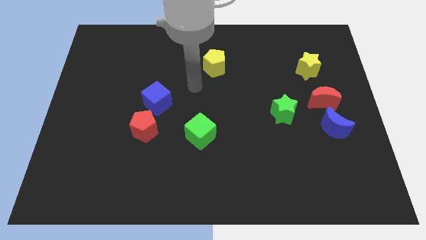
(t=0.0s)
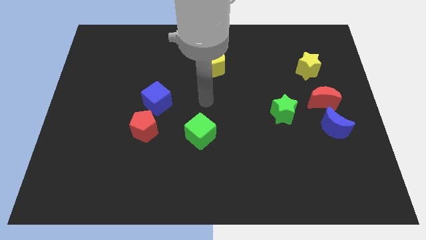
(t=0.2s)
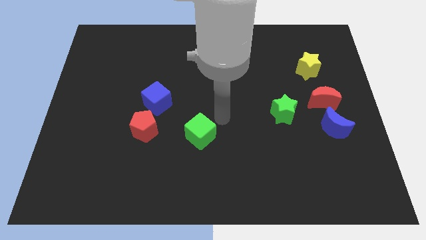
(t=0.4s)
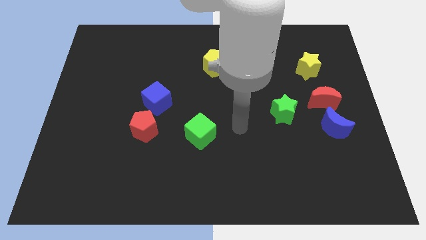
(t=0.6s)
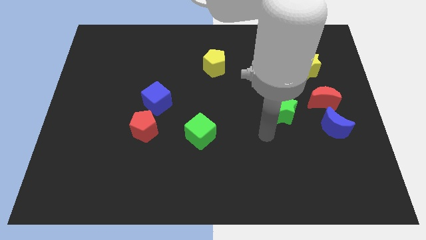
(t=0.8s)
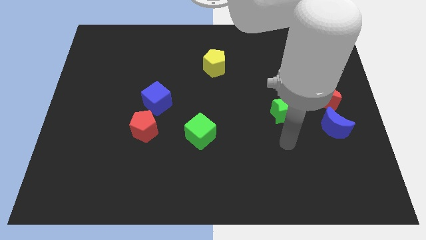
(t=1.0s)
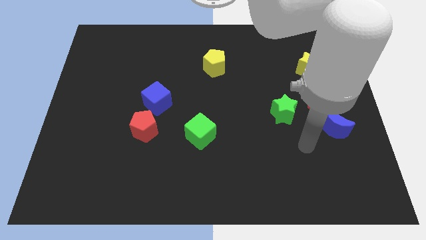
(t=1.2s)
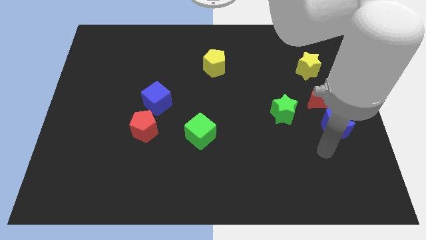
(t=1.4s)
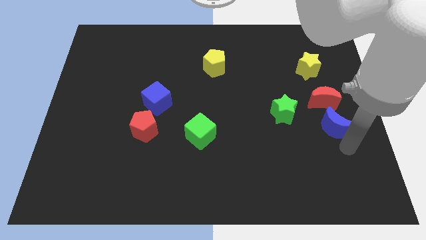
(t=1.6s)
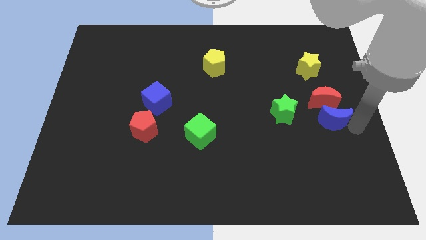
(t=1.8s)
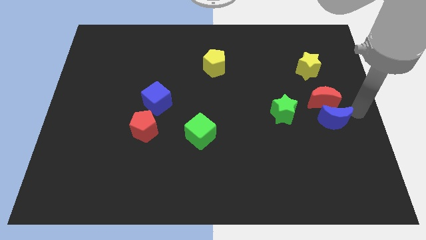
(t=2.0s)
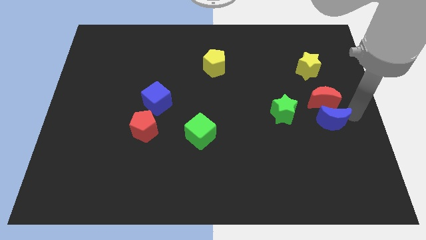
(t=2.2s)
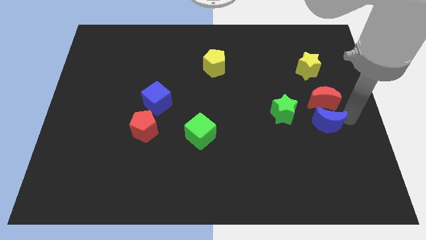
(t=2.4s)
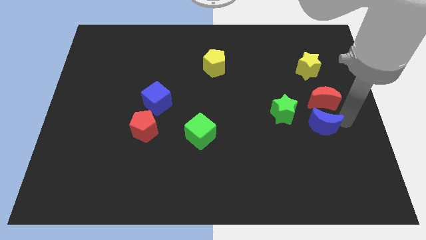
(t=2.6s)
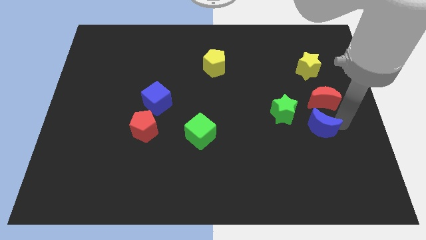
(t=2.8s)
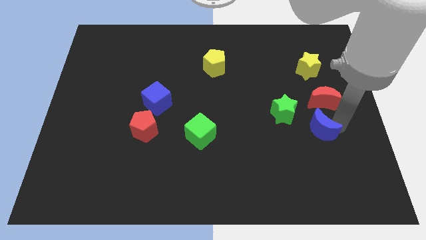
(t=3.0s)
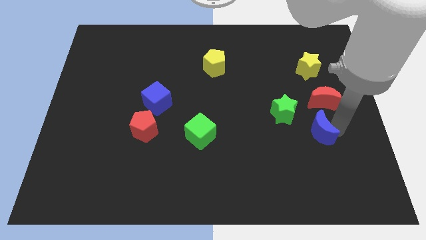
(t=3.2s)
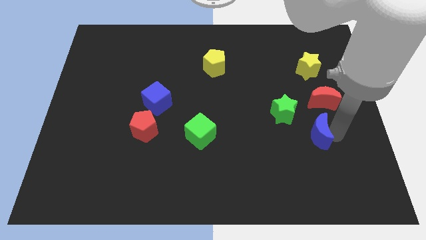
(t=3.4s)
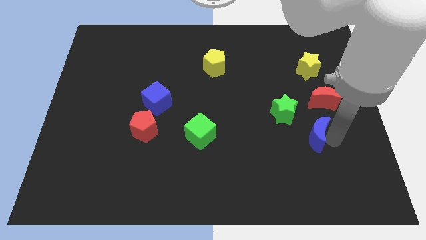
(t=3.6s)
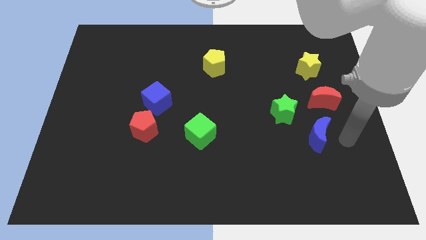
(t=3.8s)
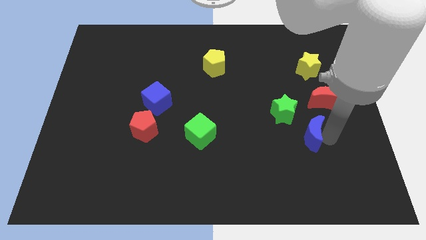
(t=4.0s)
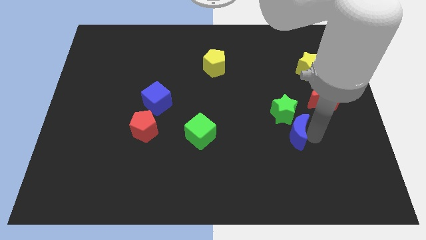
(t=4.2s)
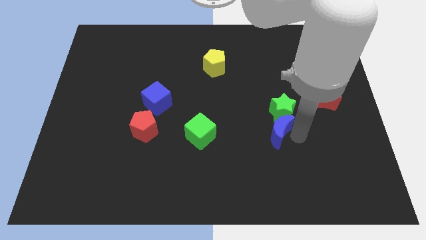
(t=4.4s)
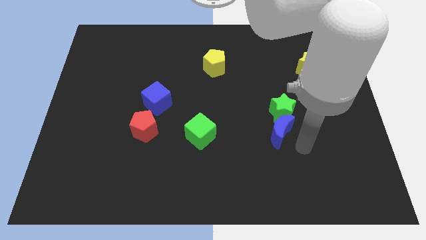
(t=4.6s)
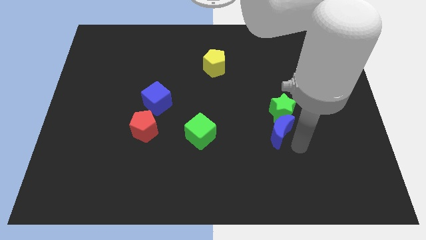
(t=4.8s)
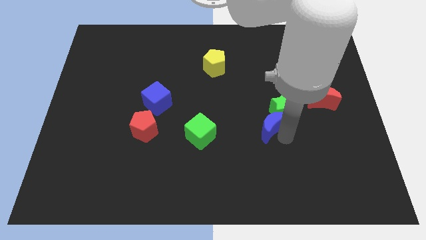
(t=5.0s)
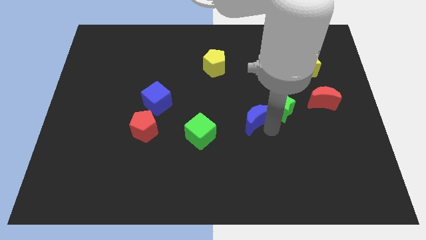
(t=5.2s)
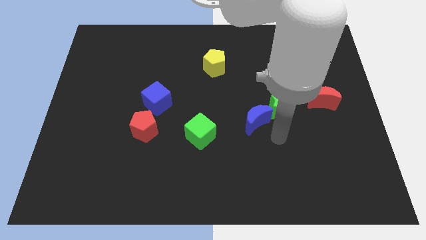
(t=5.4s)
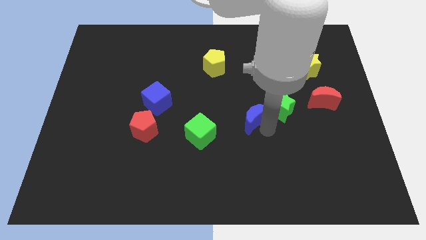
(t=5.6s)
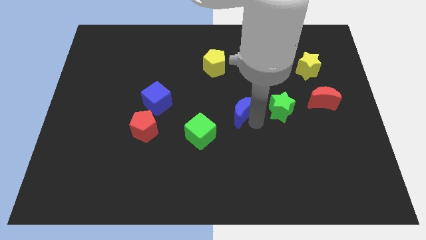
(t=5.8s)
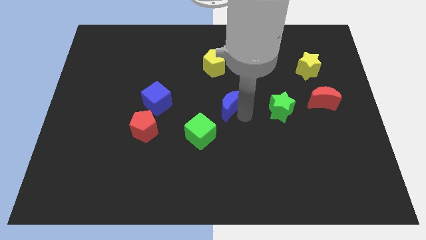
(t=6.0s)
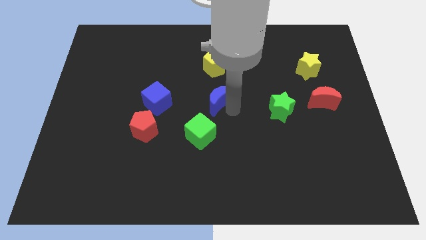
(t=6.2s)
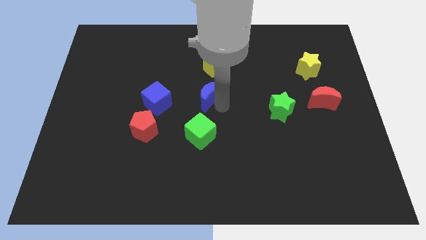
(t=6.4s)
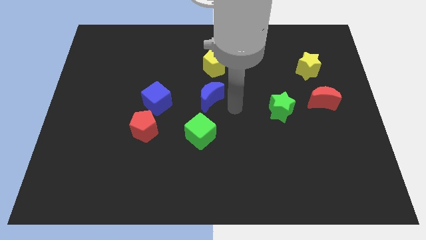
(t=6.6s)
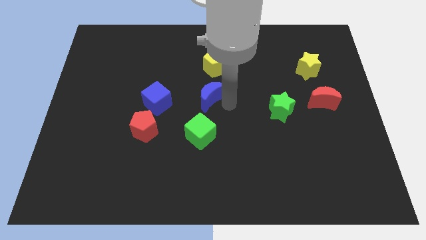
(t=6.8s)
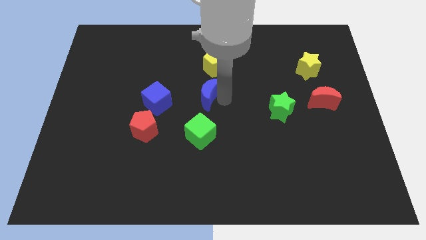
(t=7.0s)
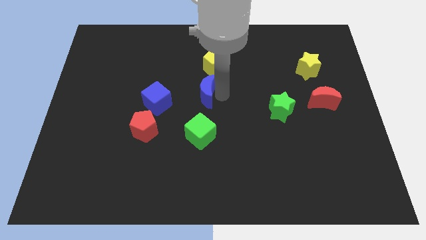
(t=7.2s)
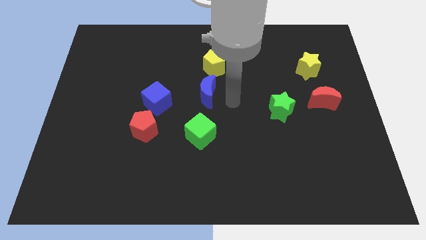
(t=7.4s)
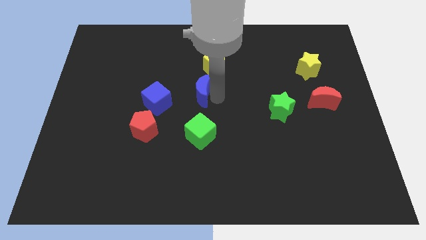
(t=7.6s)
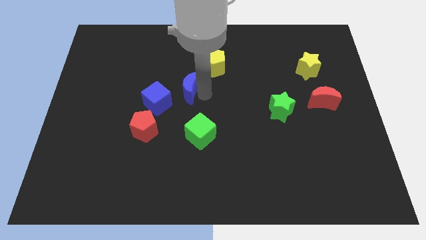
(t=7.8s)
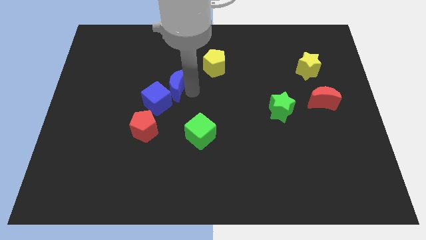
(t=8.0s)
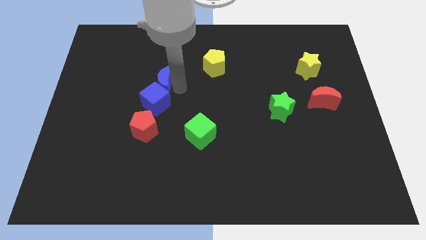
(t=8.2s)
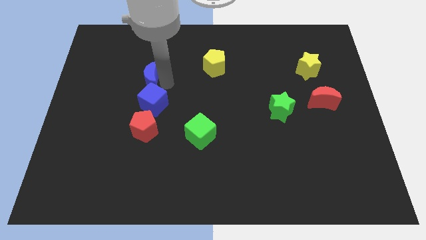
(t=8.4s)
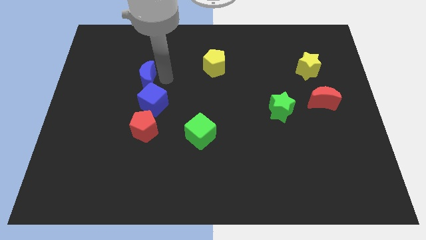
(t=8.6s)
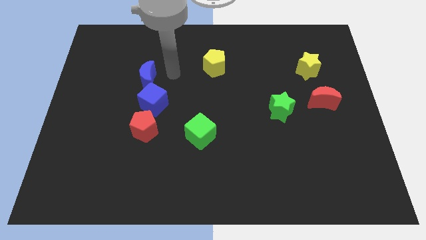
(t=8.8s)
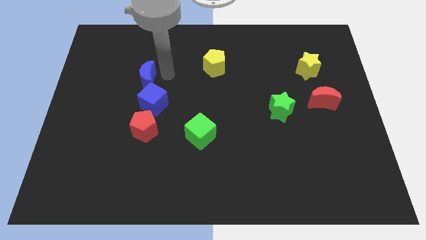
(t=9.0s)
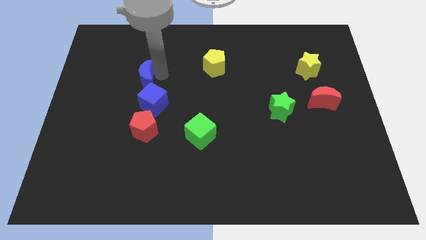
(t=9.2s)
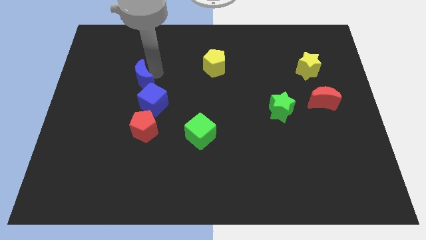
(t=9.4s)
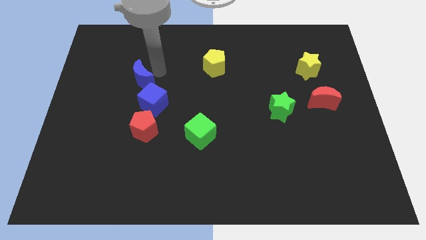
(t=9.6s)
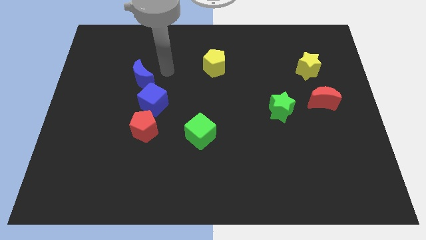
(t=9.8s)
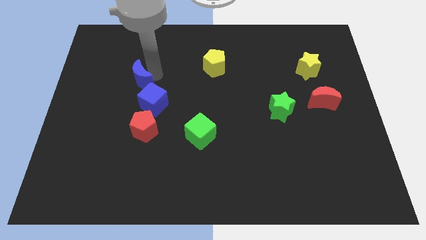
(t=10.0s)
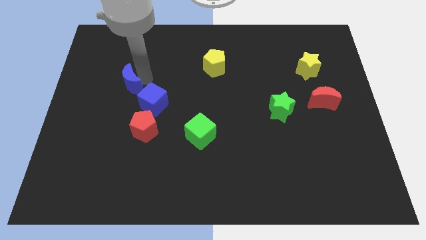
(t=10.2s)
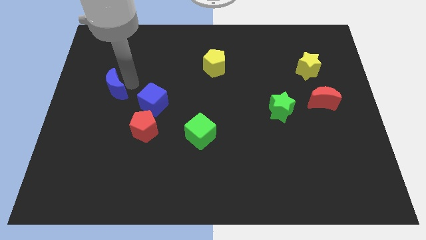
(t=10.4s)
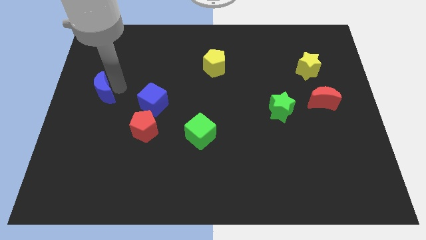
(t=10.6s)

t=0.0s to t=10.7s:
put the blue moon to the center left

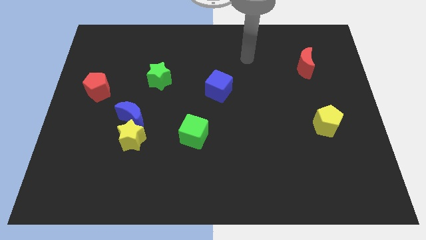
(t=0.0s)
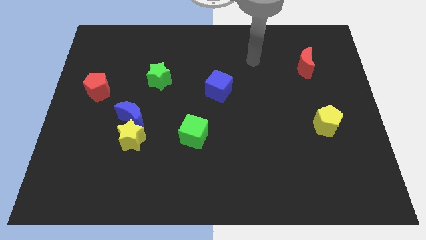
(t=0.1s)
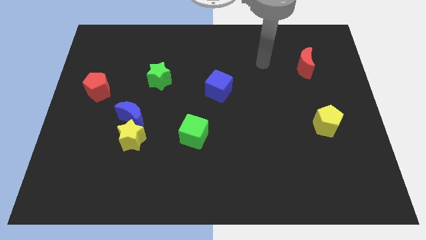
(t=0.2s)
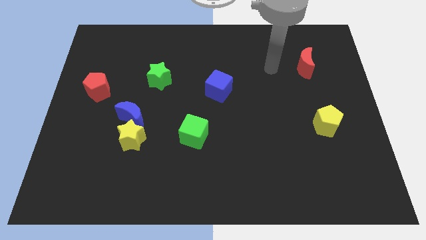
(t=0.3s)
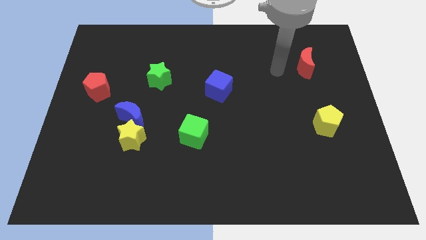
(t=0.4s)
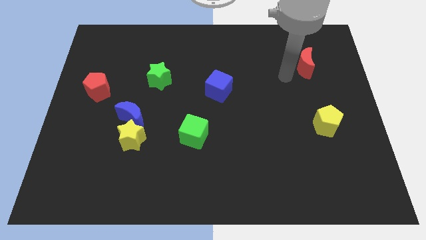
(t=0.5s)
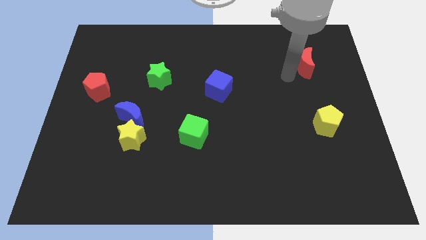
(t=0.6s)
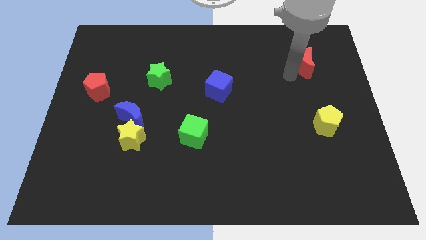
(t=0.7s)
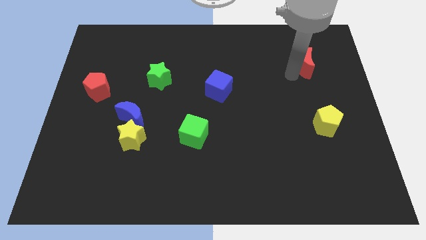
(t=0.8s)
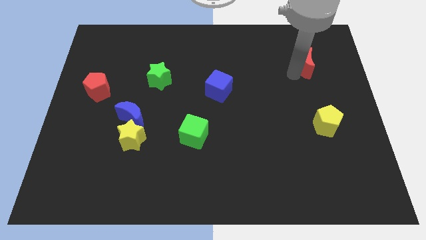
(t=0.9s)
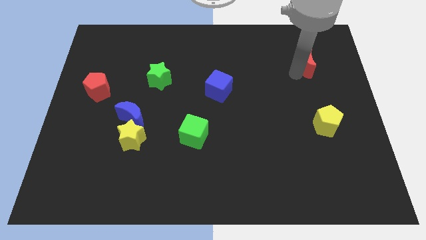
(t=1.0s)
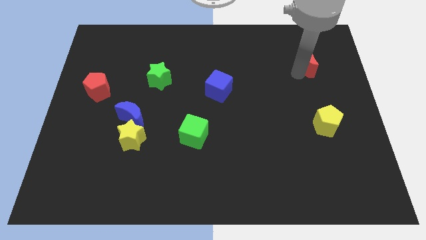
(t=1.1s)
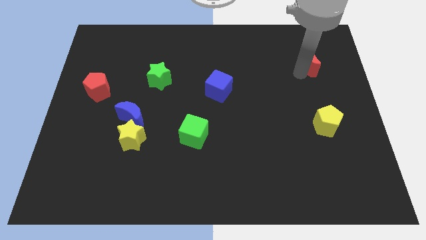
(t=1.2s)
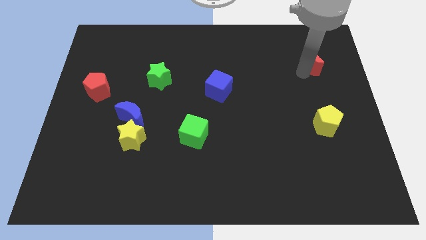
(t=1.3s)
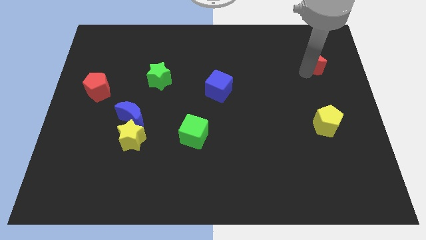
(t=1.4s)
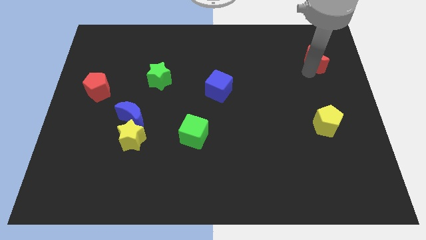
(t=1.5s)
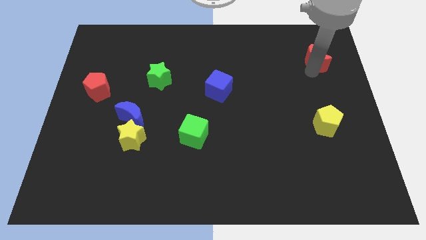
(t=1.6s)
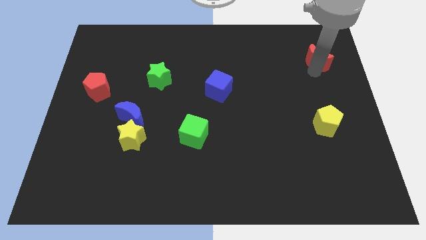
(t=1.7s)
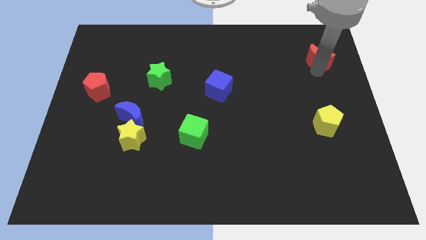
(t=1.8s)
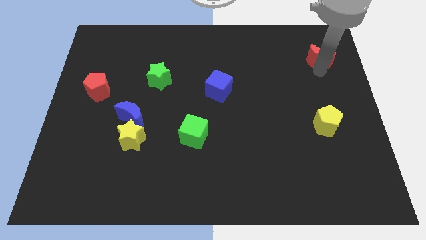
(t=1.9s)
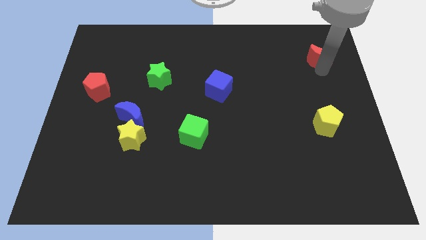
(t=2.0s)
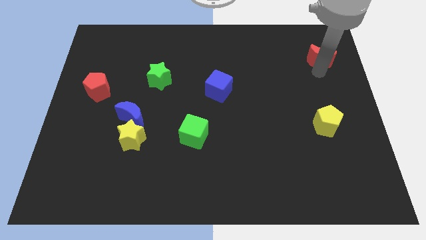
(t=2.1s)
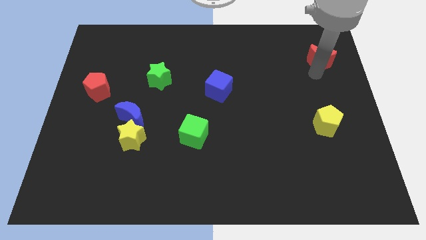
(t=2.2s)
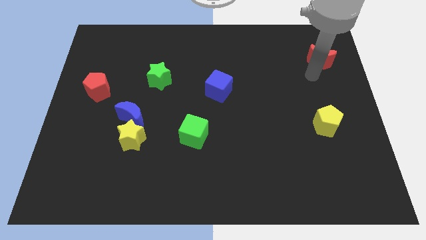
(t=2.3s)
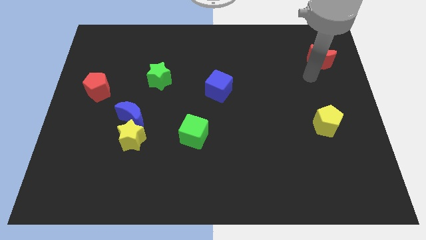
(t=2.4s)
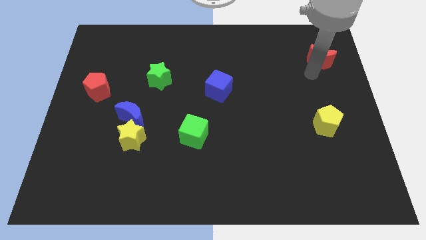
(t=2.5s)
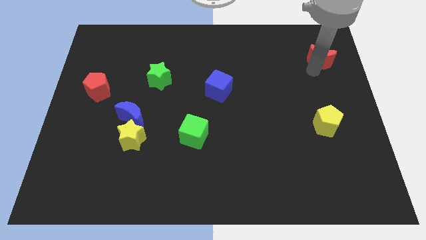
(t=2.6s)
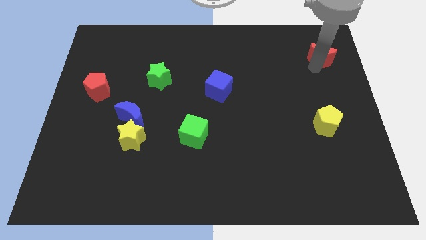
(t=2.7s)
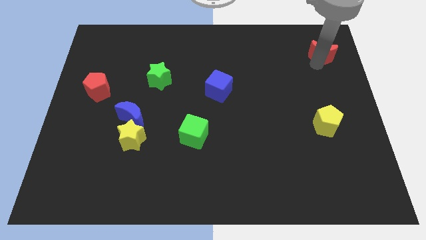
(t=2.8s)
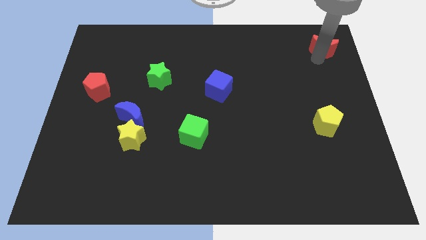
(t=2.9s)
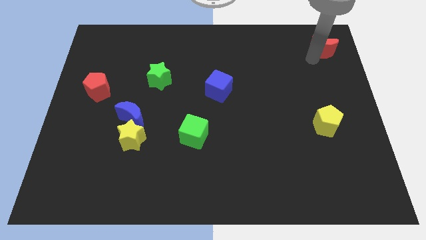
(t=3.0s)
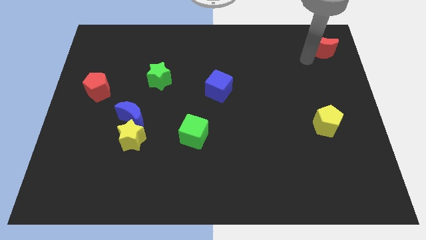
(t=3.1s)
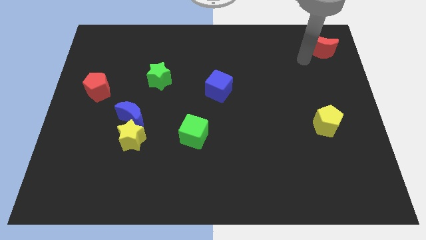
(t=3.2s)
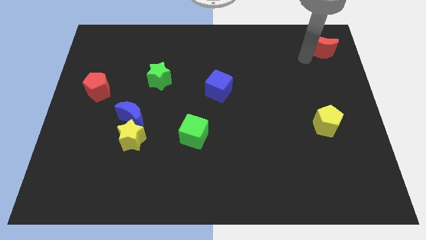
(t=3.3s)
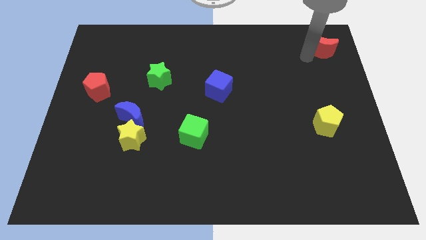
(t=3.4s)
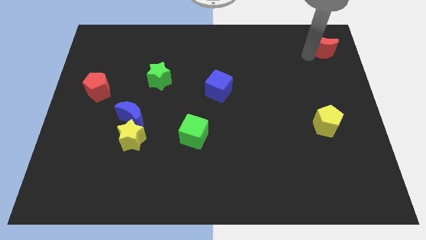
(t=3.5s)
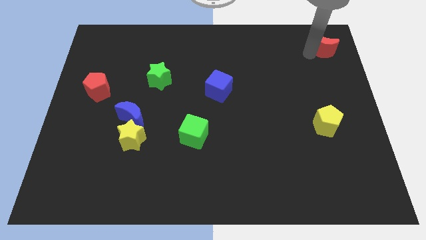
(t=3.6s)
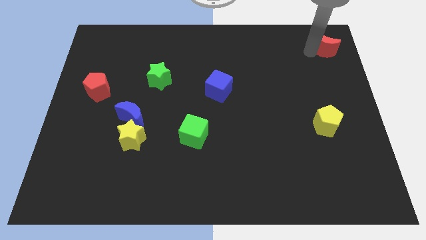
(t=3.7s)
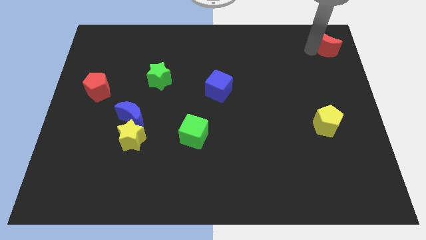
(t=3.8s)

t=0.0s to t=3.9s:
slide the red moon to the top right corner
